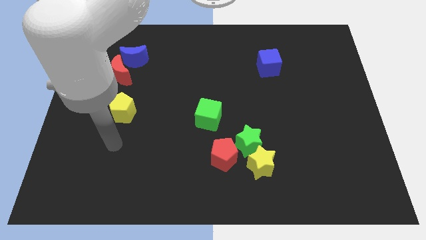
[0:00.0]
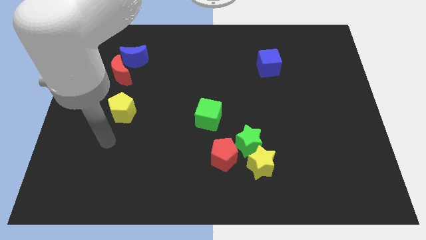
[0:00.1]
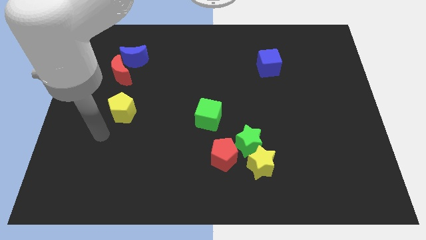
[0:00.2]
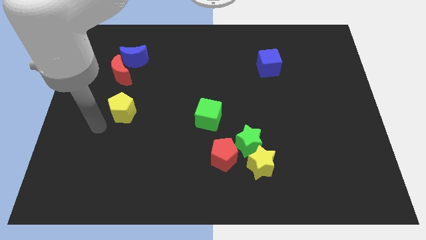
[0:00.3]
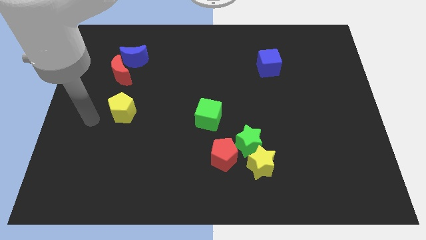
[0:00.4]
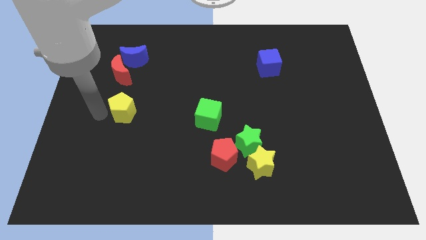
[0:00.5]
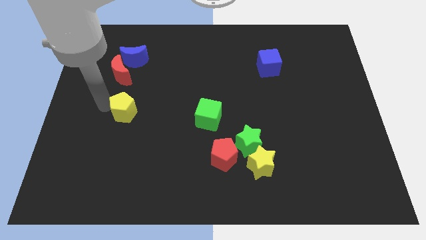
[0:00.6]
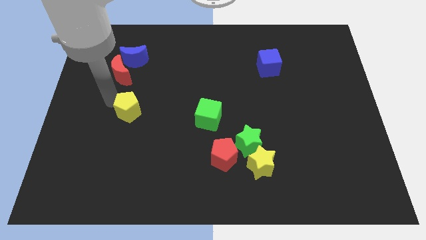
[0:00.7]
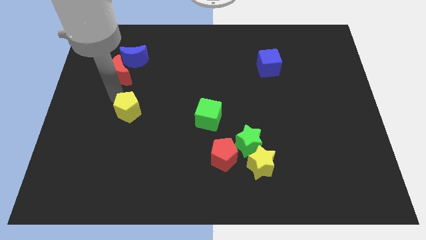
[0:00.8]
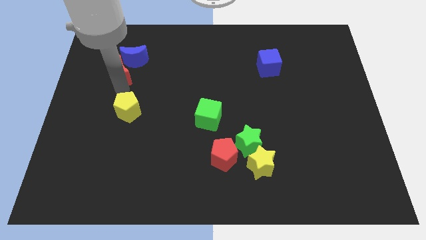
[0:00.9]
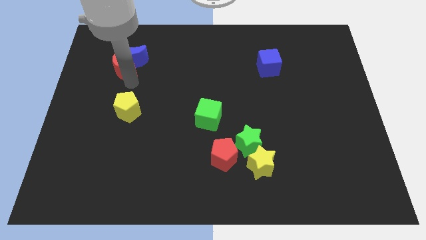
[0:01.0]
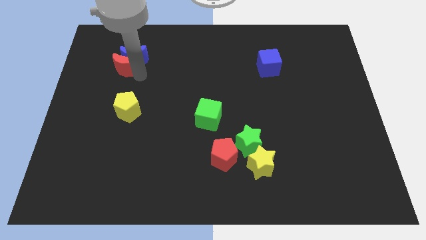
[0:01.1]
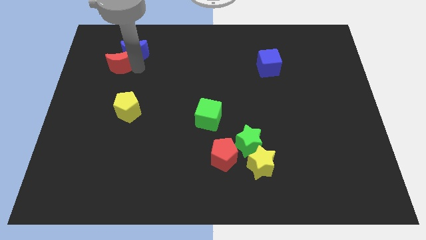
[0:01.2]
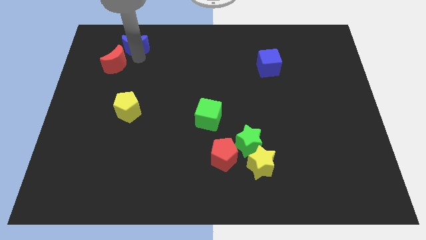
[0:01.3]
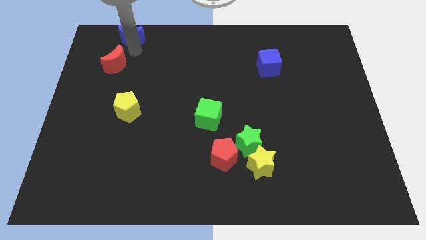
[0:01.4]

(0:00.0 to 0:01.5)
pull the red moon apart from the blue moon

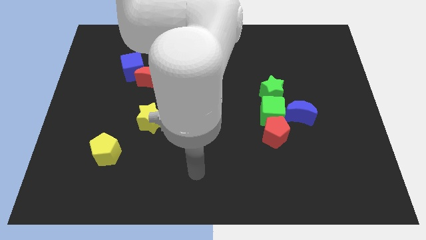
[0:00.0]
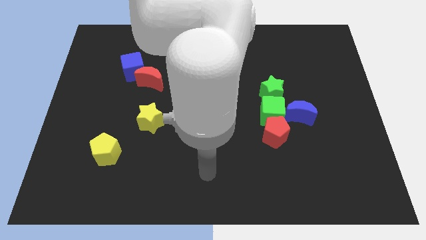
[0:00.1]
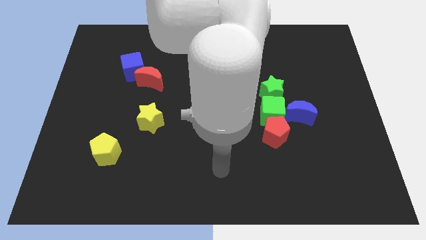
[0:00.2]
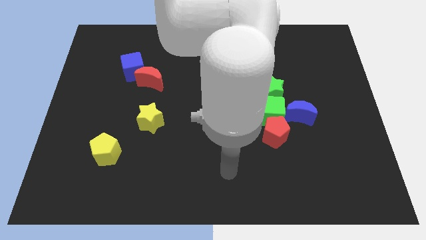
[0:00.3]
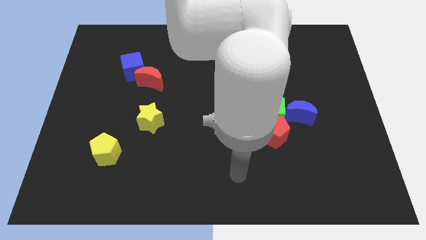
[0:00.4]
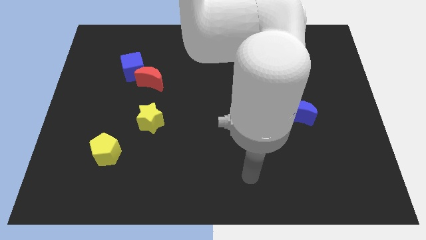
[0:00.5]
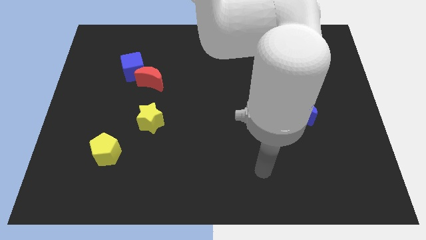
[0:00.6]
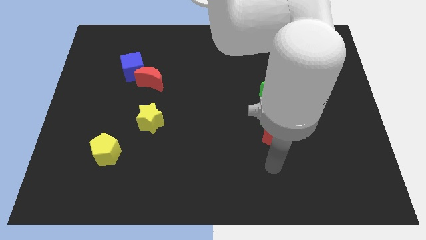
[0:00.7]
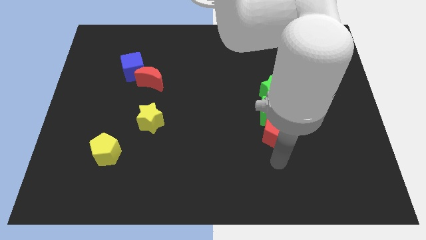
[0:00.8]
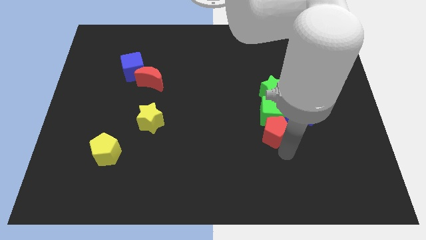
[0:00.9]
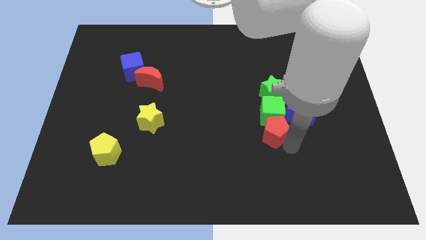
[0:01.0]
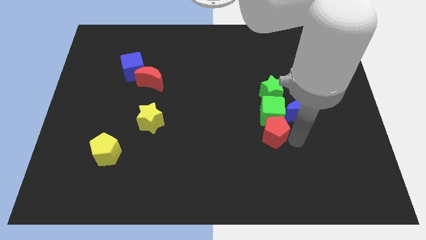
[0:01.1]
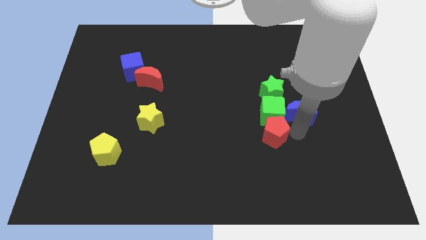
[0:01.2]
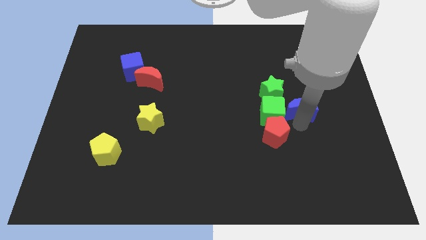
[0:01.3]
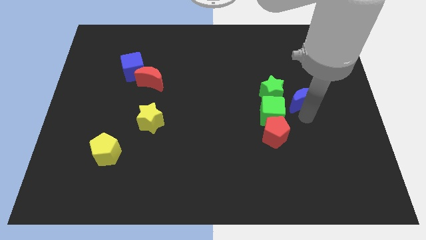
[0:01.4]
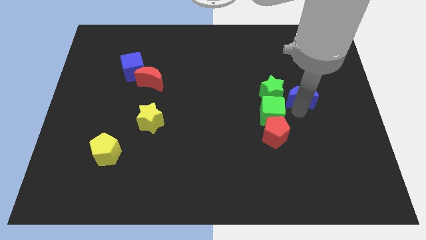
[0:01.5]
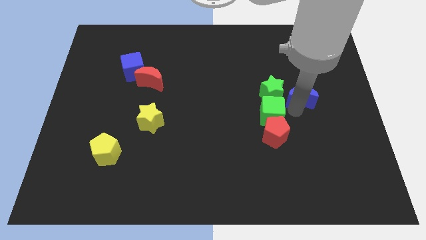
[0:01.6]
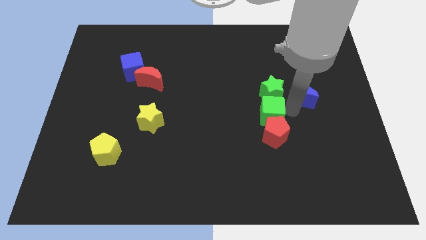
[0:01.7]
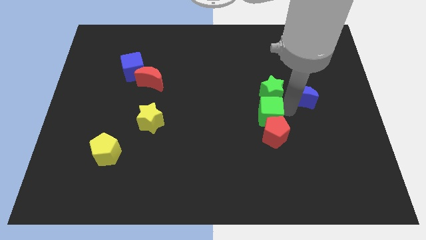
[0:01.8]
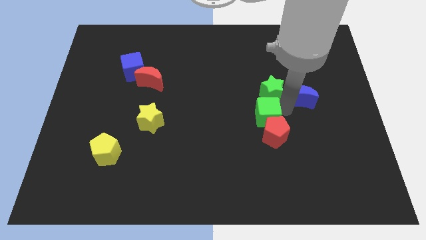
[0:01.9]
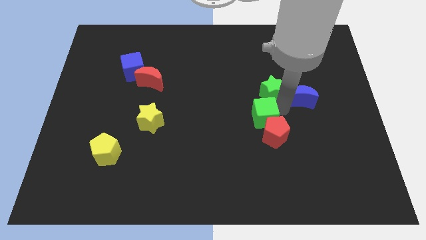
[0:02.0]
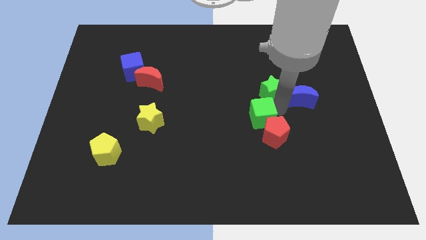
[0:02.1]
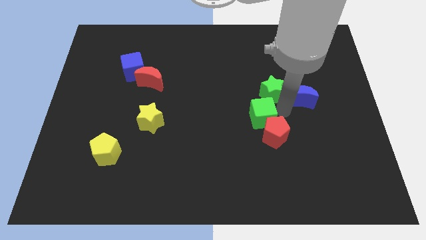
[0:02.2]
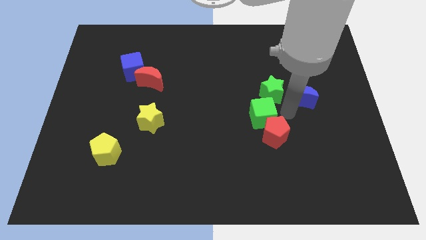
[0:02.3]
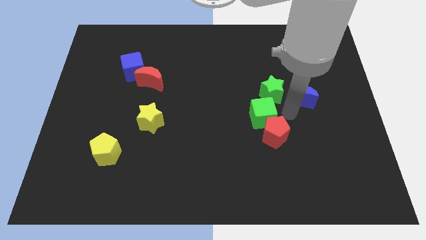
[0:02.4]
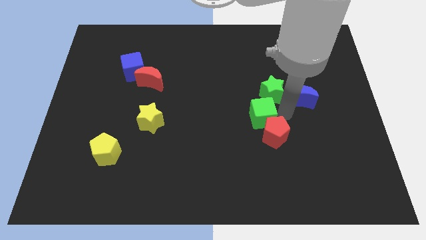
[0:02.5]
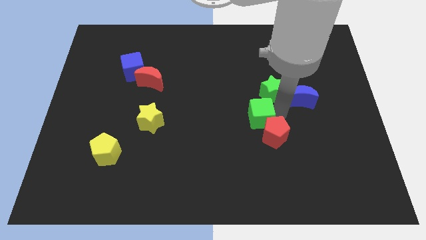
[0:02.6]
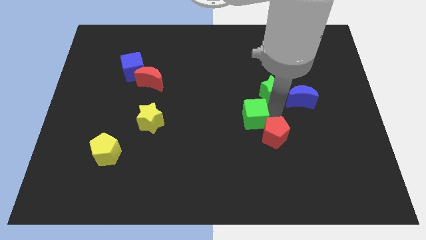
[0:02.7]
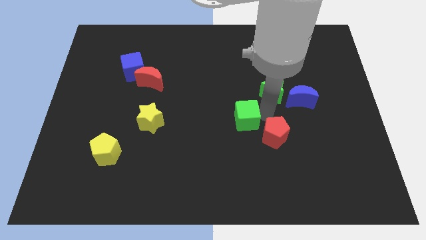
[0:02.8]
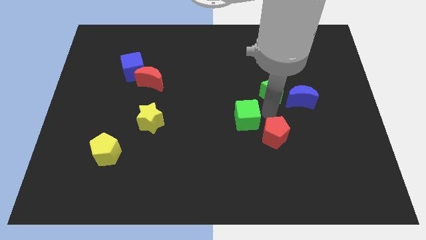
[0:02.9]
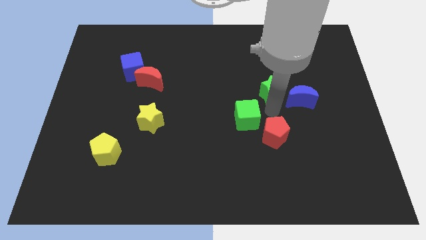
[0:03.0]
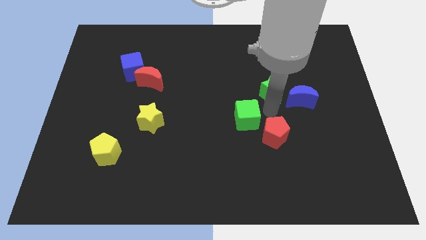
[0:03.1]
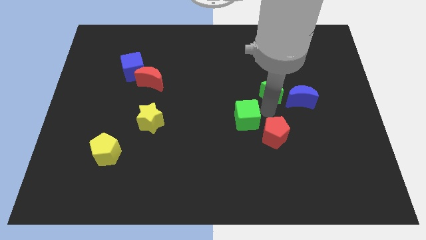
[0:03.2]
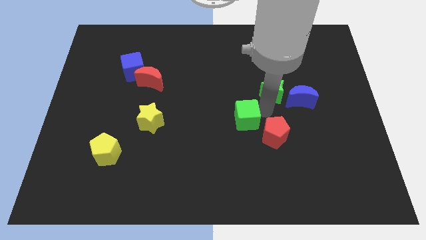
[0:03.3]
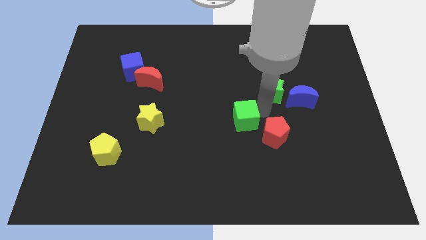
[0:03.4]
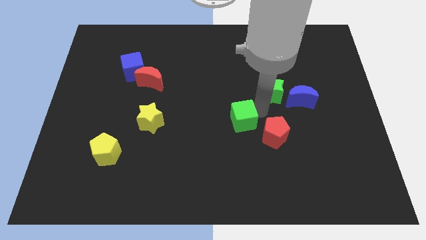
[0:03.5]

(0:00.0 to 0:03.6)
separate the green cube from the red pentagon, green star, and blue moon

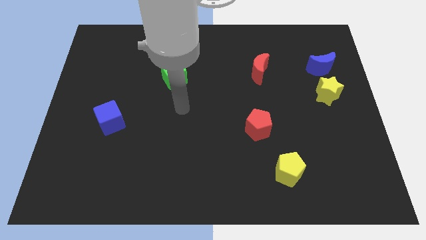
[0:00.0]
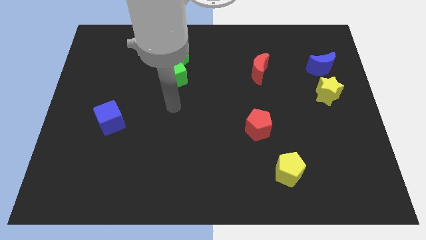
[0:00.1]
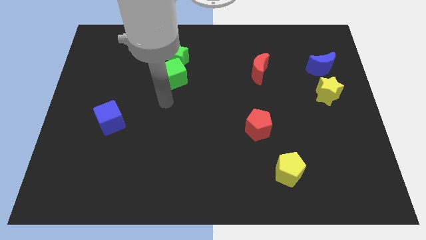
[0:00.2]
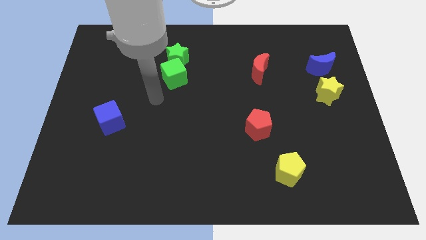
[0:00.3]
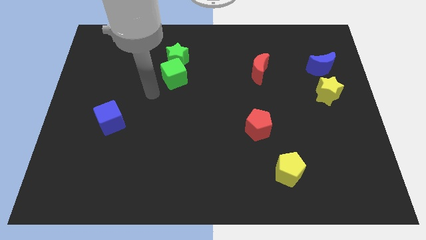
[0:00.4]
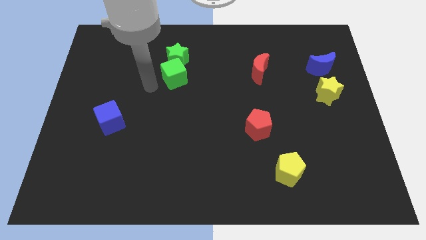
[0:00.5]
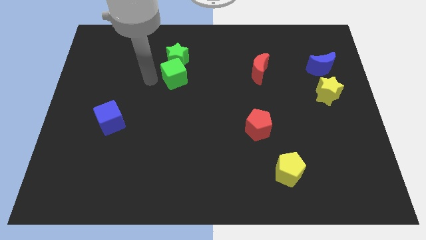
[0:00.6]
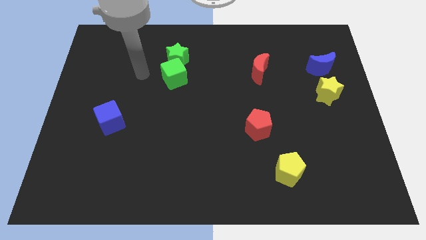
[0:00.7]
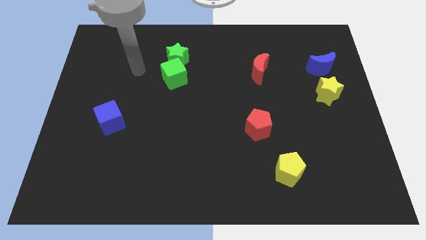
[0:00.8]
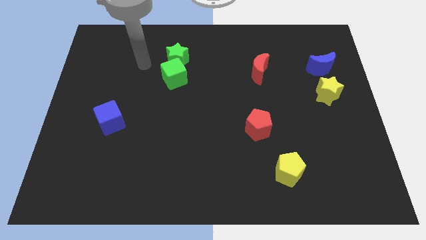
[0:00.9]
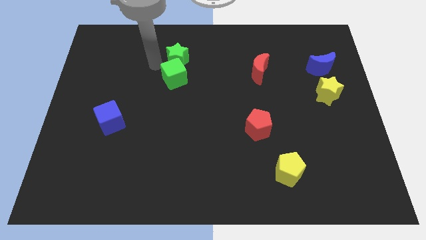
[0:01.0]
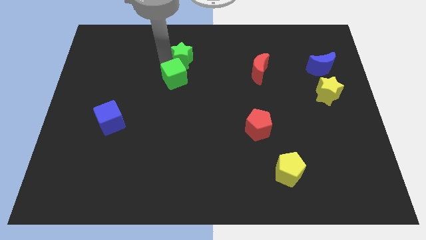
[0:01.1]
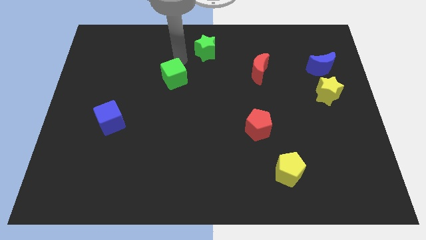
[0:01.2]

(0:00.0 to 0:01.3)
separate the green cube from the green star

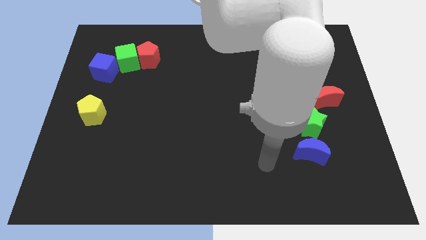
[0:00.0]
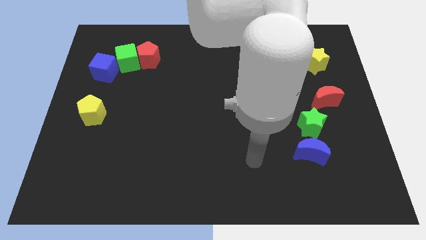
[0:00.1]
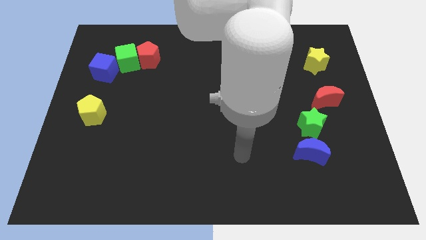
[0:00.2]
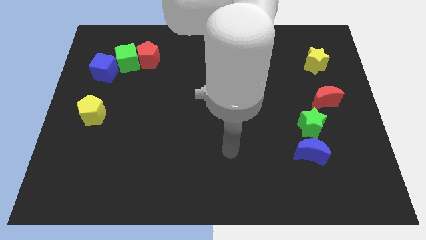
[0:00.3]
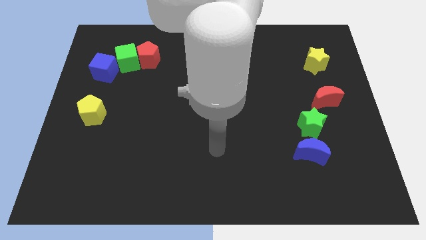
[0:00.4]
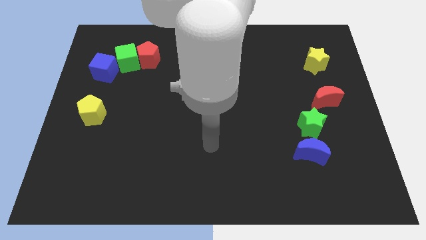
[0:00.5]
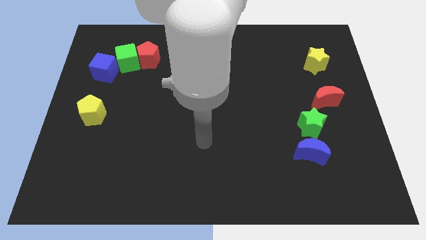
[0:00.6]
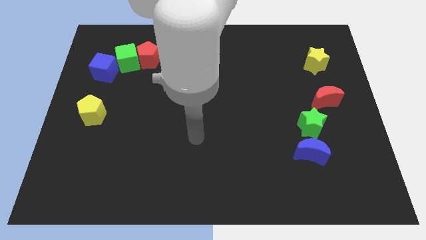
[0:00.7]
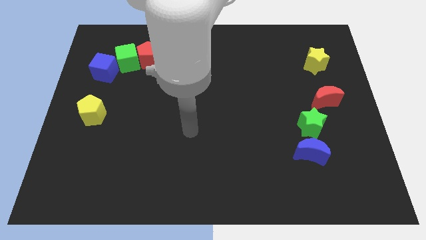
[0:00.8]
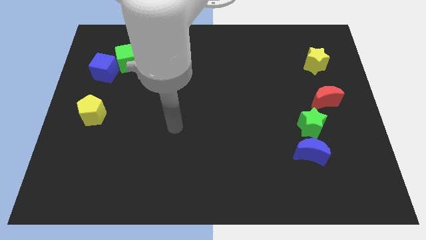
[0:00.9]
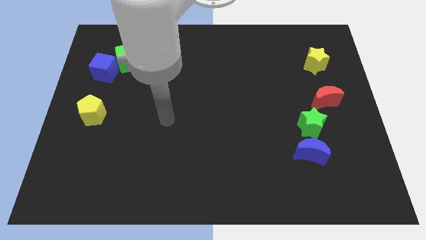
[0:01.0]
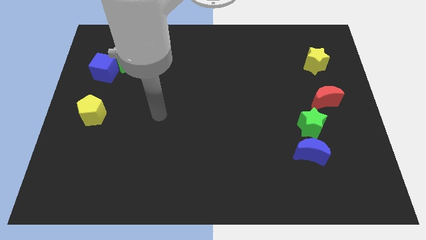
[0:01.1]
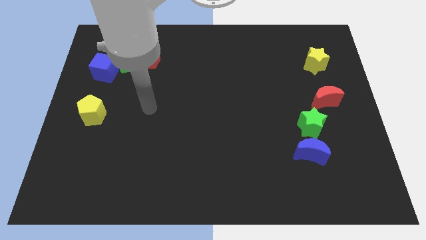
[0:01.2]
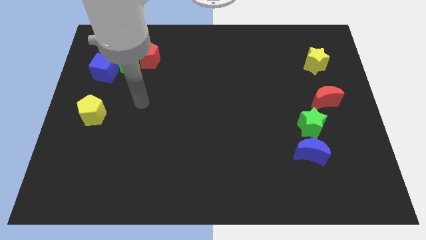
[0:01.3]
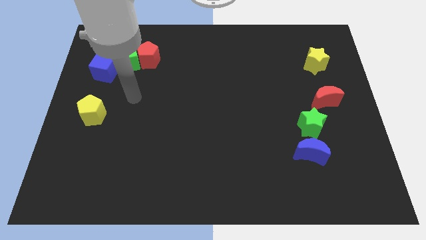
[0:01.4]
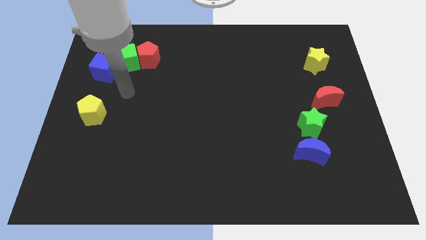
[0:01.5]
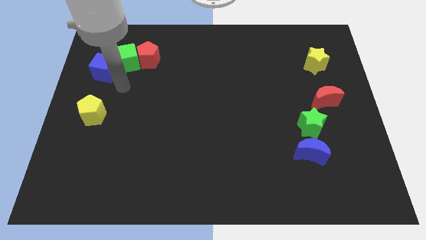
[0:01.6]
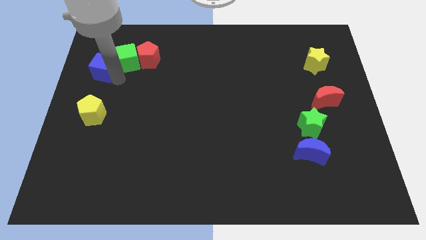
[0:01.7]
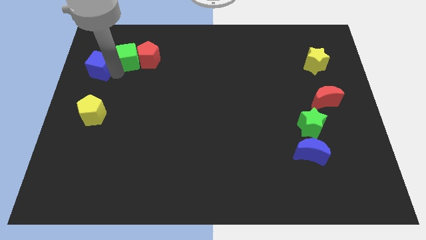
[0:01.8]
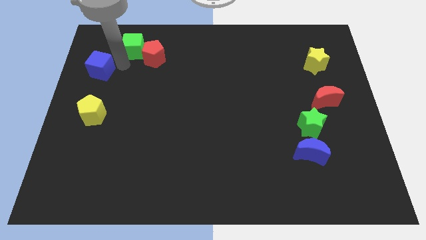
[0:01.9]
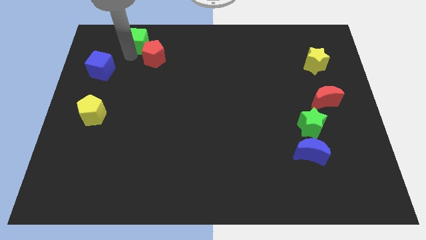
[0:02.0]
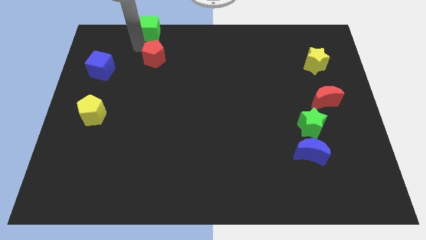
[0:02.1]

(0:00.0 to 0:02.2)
separate the red pentagon from the green cube

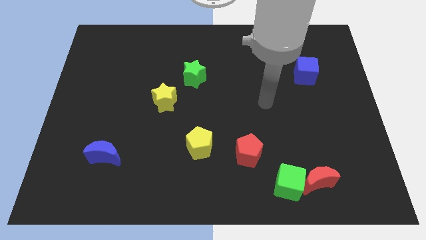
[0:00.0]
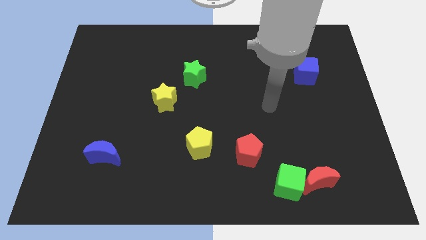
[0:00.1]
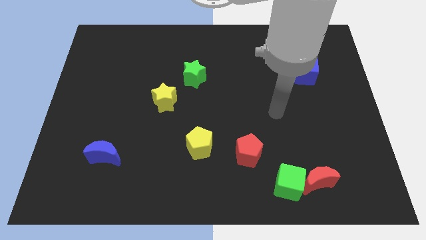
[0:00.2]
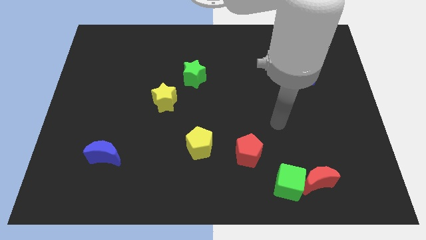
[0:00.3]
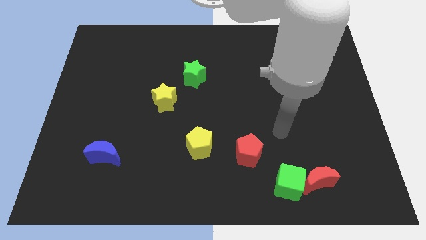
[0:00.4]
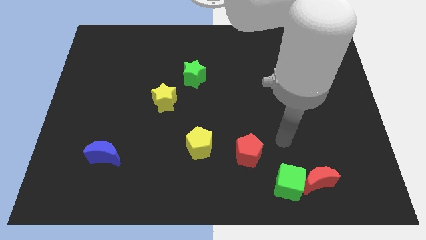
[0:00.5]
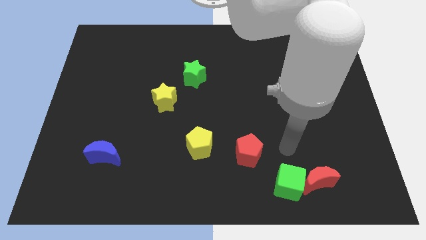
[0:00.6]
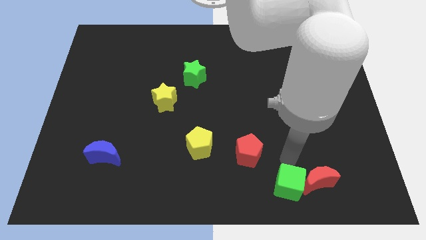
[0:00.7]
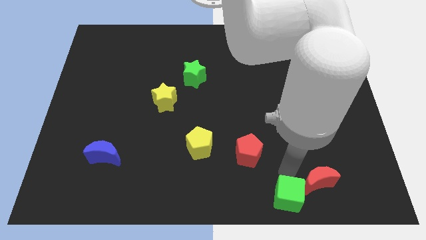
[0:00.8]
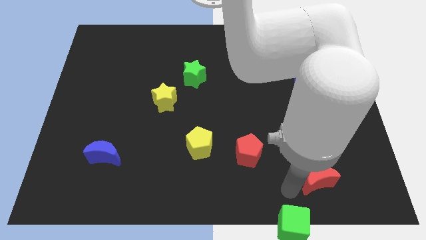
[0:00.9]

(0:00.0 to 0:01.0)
pull the red moon apart from the green cube
